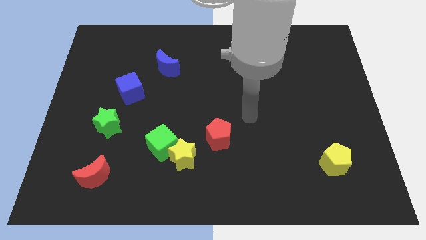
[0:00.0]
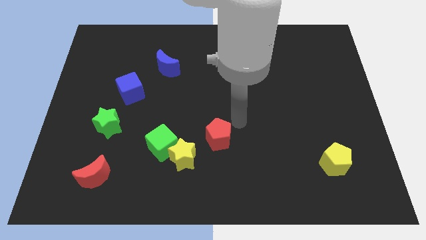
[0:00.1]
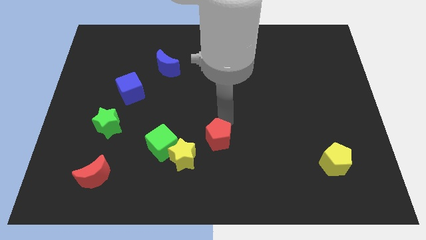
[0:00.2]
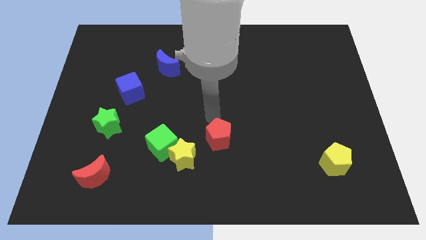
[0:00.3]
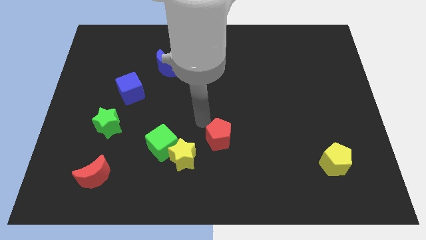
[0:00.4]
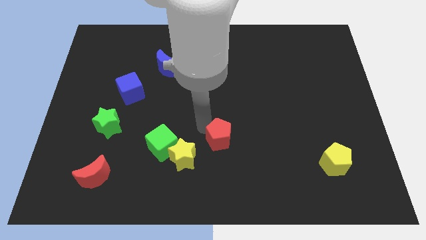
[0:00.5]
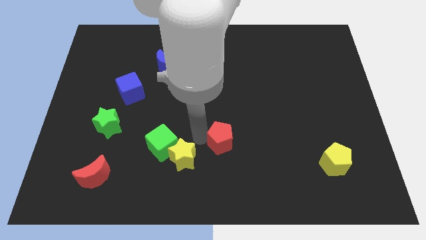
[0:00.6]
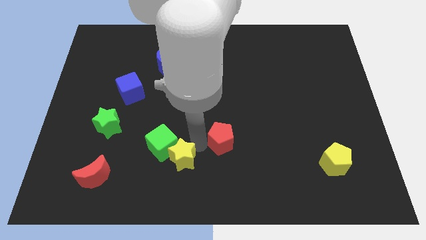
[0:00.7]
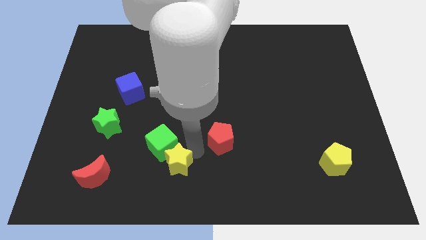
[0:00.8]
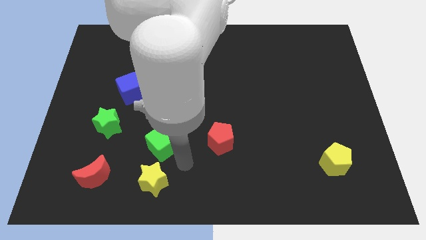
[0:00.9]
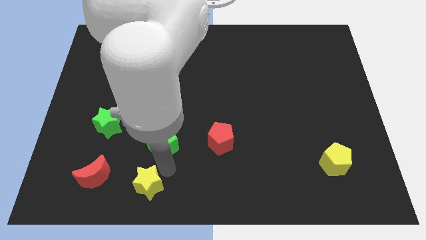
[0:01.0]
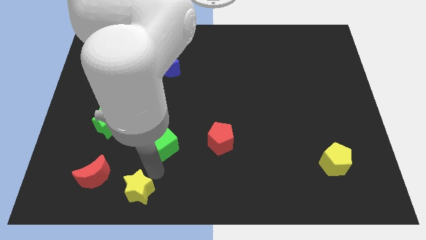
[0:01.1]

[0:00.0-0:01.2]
pull the green cube apart from the yellow star

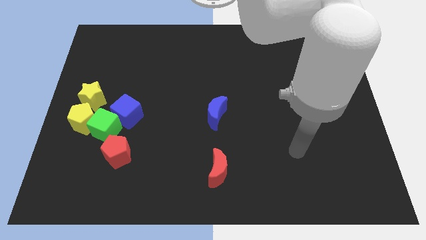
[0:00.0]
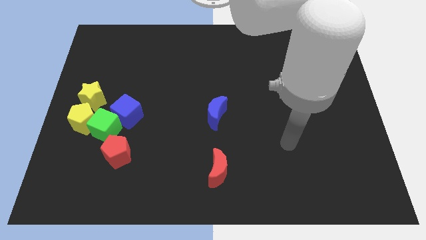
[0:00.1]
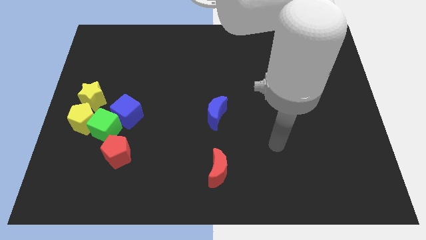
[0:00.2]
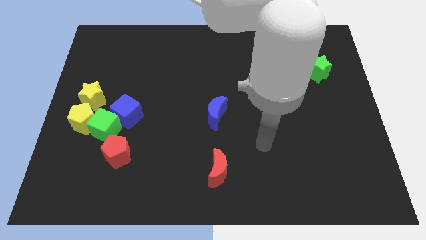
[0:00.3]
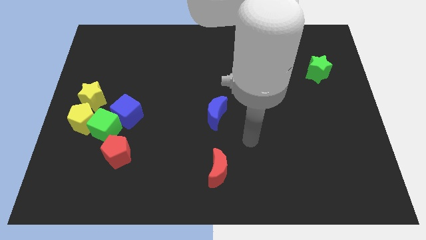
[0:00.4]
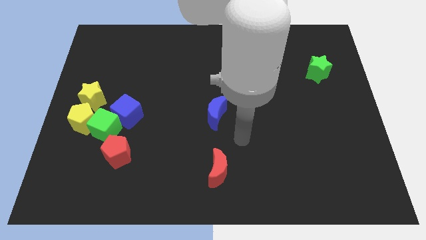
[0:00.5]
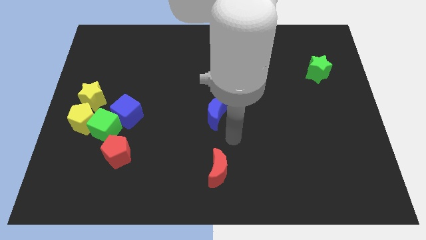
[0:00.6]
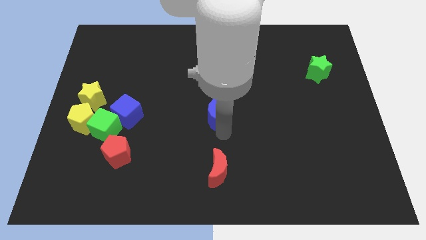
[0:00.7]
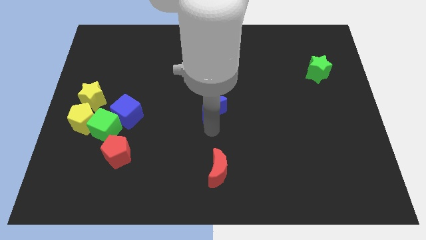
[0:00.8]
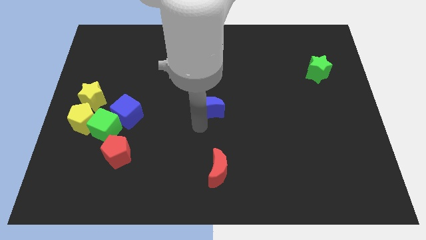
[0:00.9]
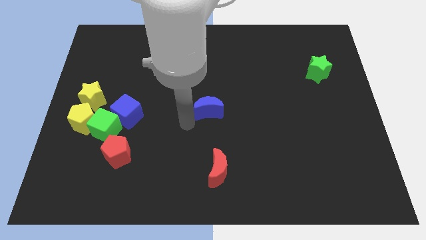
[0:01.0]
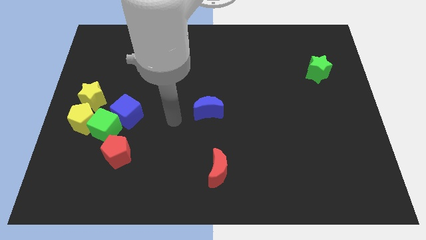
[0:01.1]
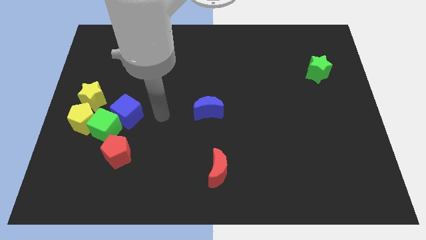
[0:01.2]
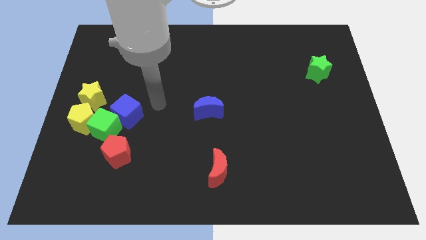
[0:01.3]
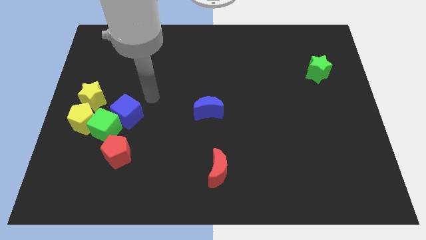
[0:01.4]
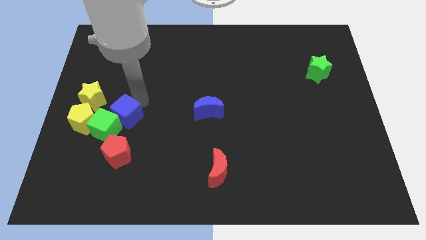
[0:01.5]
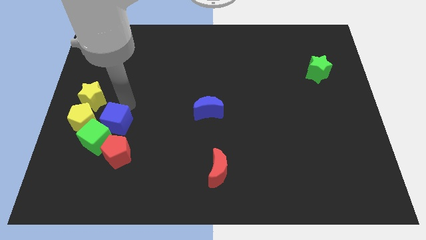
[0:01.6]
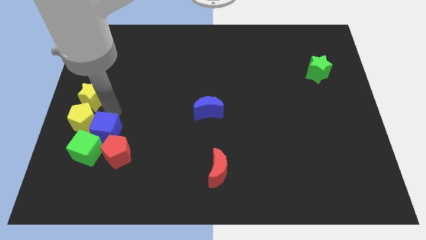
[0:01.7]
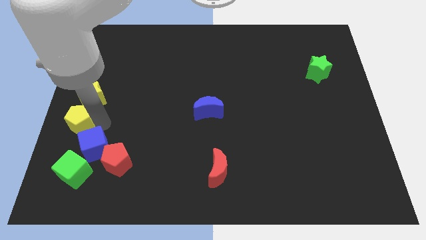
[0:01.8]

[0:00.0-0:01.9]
move the green cube away from the group

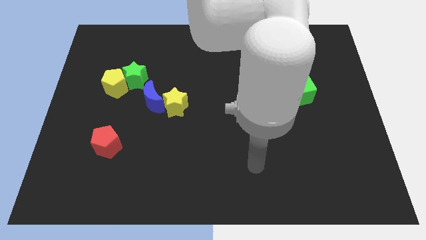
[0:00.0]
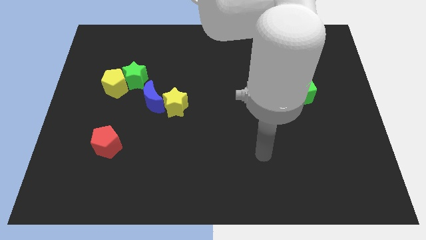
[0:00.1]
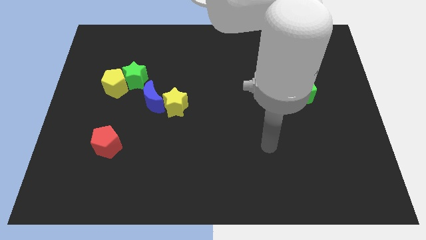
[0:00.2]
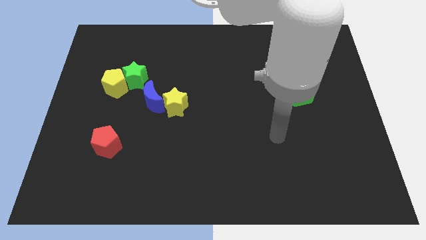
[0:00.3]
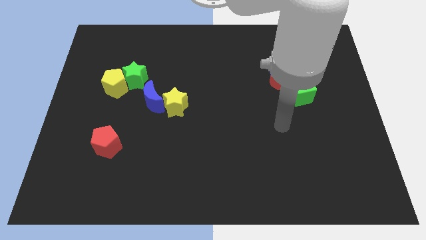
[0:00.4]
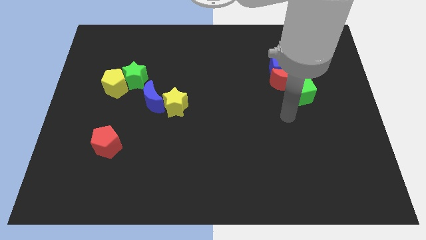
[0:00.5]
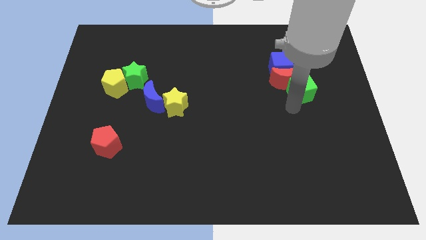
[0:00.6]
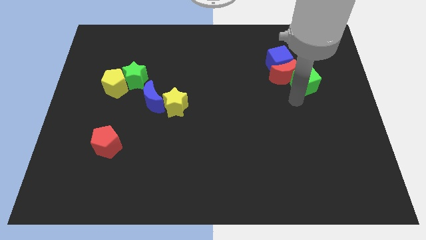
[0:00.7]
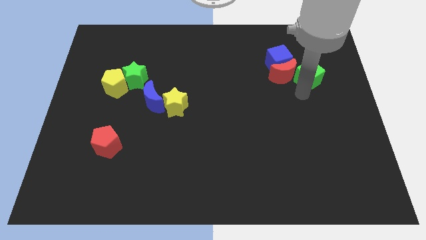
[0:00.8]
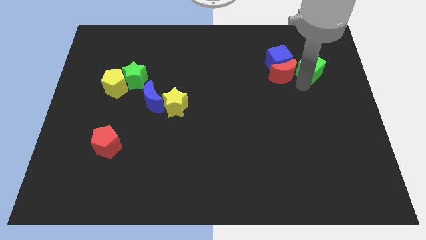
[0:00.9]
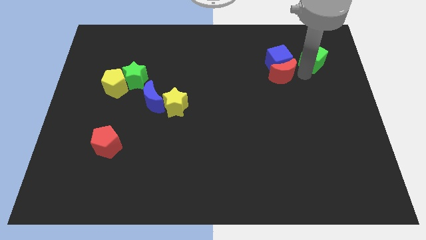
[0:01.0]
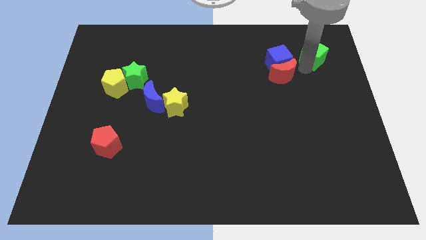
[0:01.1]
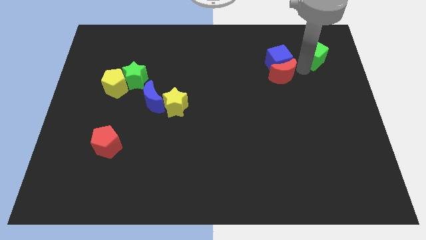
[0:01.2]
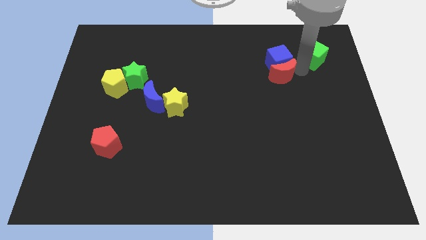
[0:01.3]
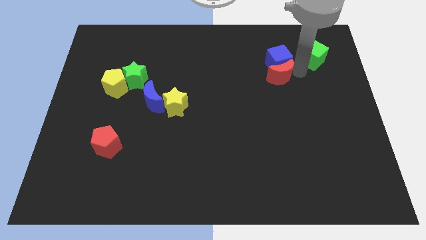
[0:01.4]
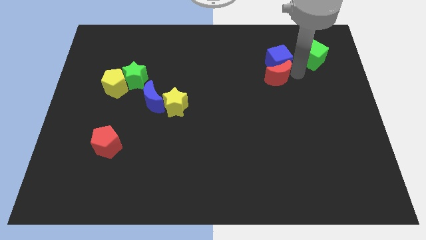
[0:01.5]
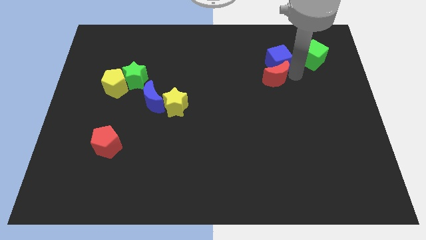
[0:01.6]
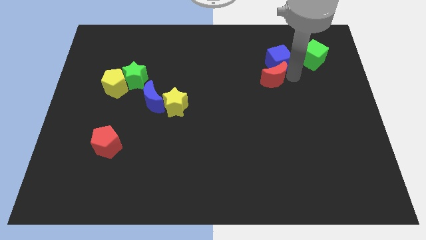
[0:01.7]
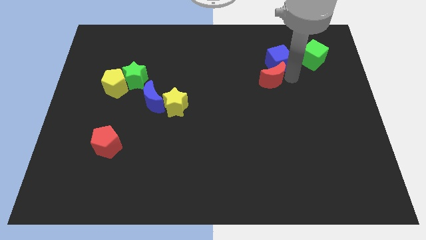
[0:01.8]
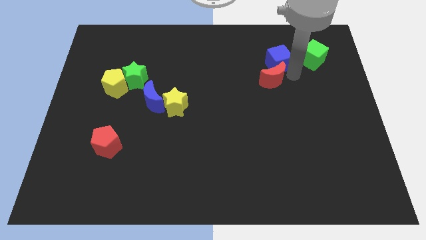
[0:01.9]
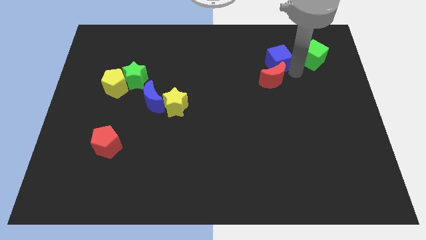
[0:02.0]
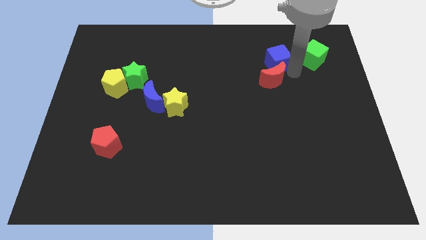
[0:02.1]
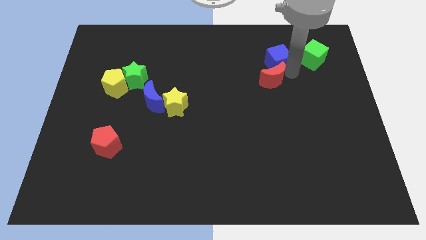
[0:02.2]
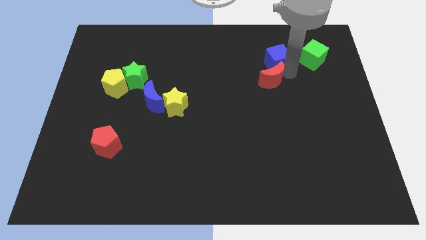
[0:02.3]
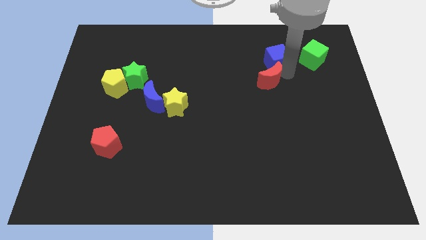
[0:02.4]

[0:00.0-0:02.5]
pull the red moon apart from the blue cube and green cube

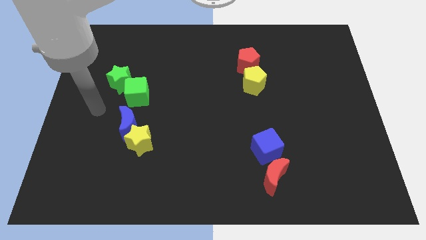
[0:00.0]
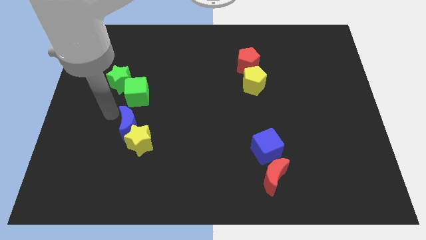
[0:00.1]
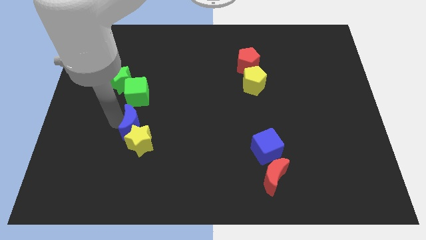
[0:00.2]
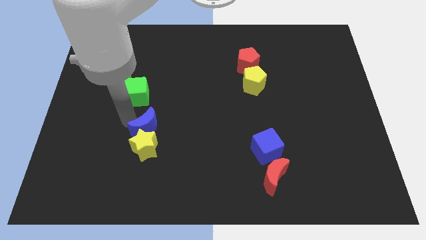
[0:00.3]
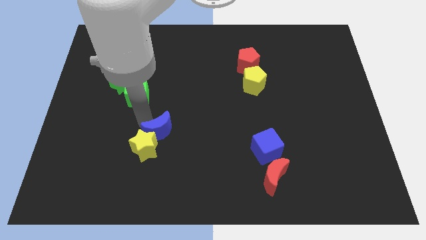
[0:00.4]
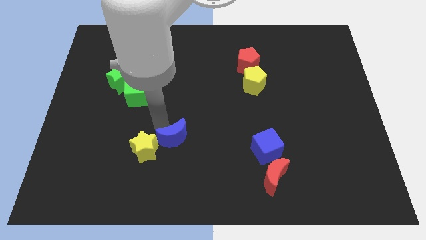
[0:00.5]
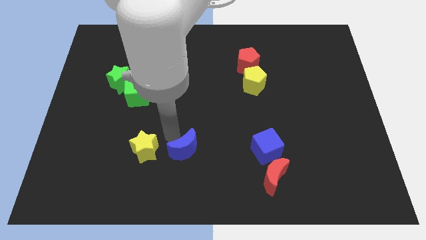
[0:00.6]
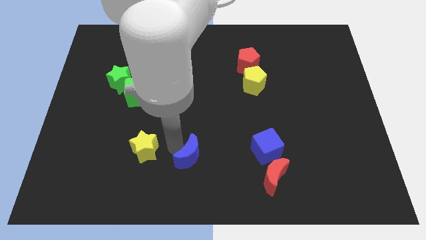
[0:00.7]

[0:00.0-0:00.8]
separate the yellow star from the blue moon

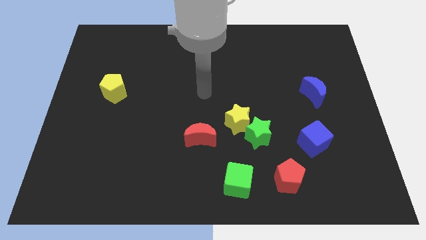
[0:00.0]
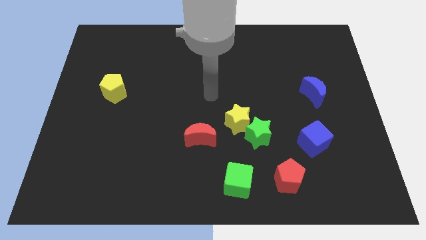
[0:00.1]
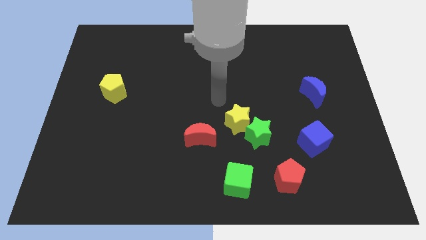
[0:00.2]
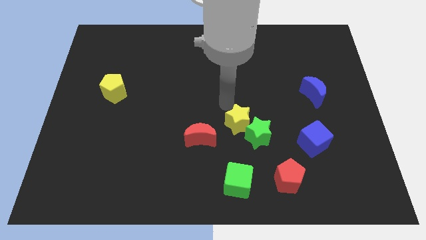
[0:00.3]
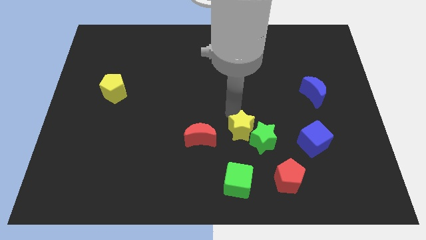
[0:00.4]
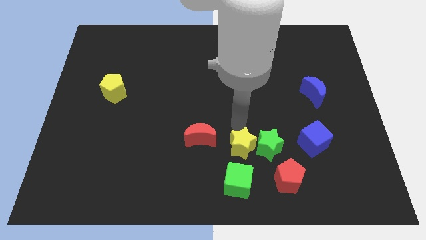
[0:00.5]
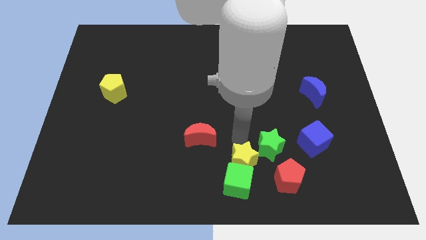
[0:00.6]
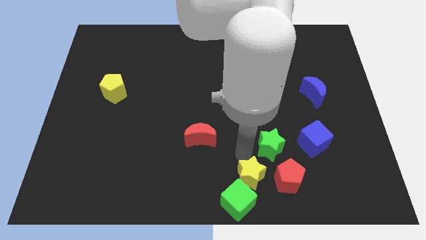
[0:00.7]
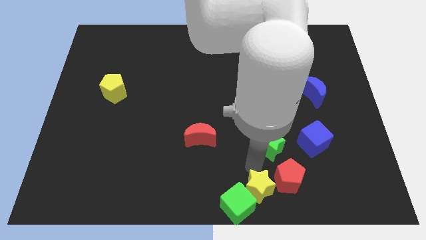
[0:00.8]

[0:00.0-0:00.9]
move the green star away from the yellow star

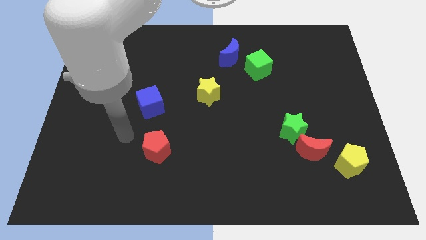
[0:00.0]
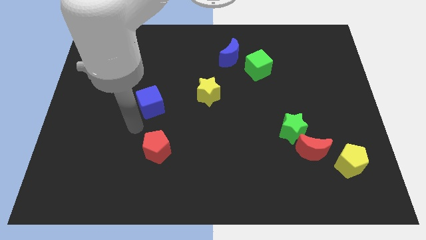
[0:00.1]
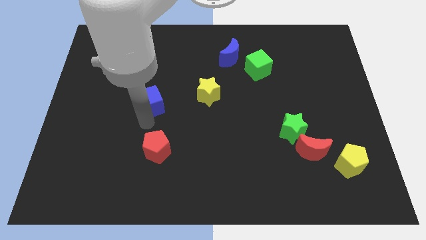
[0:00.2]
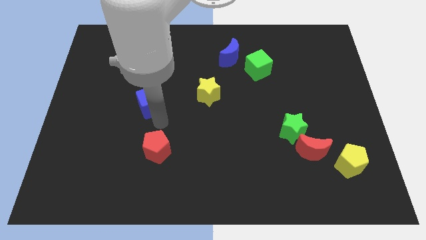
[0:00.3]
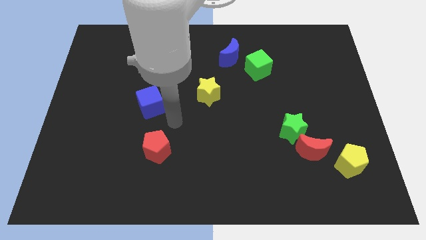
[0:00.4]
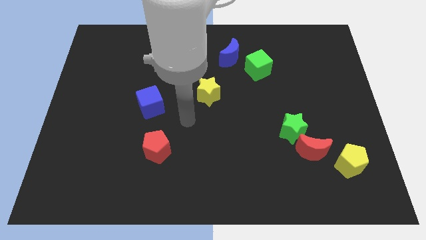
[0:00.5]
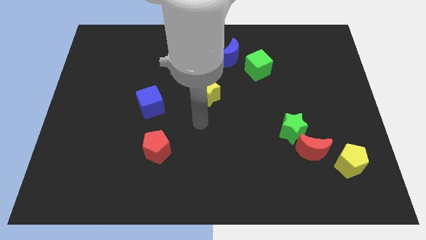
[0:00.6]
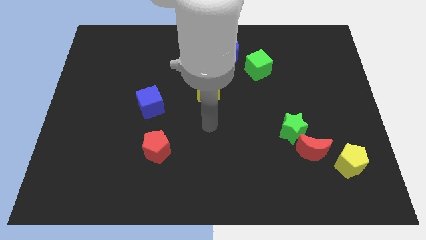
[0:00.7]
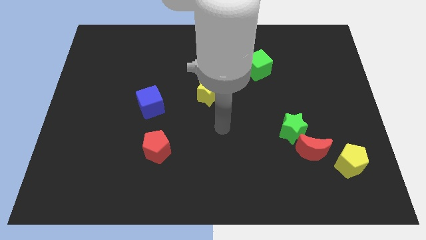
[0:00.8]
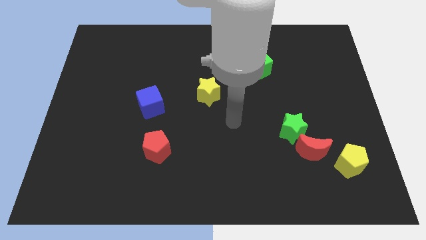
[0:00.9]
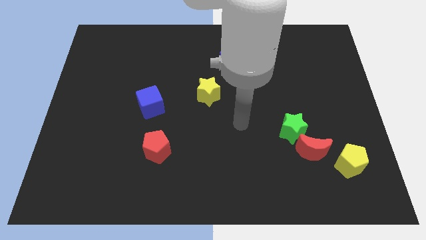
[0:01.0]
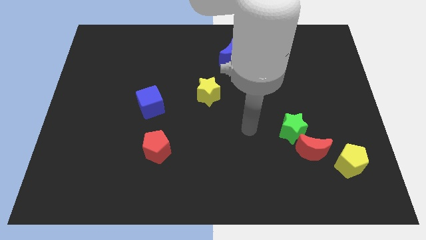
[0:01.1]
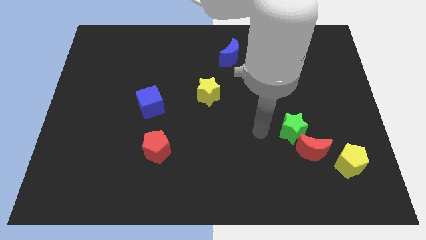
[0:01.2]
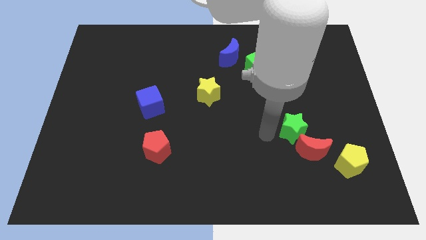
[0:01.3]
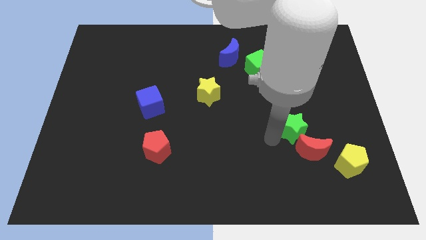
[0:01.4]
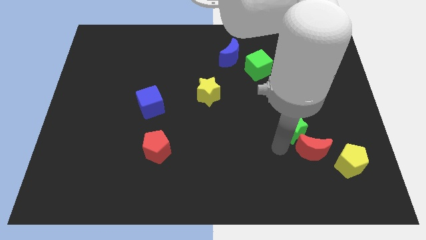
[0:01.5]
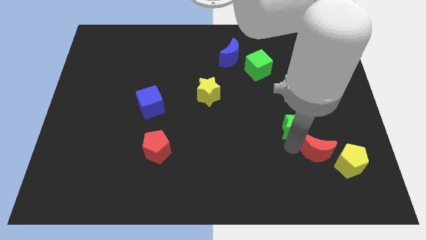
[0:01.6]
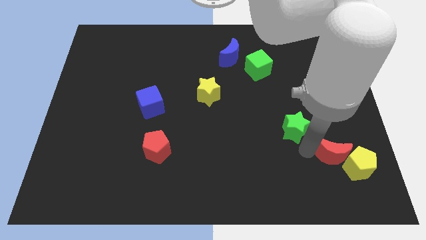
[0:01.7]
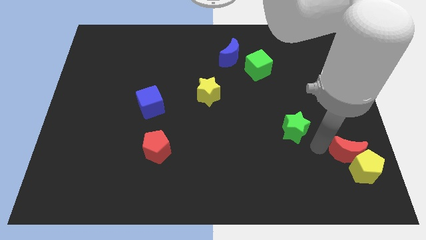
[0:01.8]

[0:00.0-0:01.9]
separate the green star from the red moon
